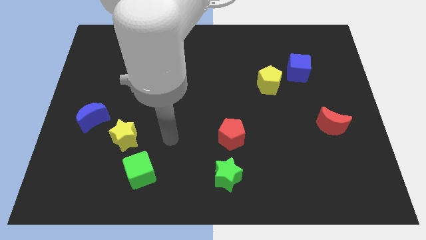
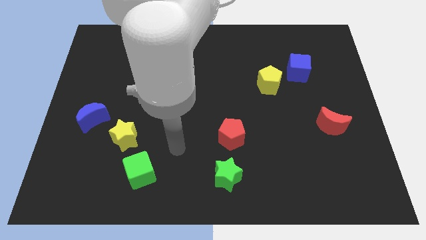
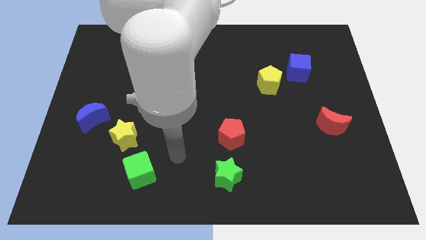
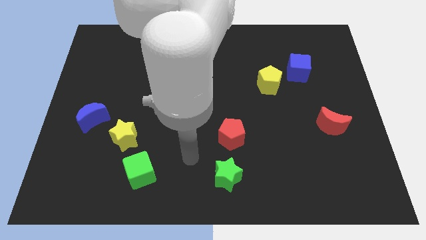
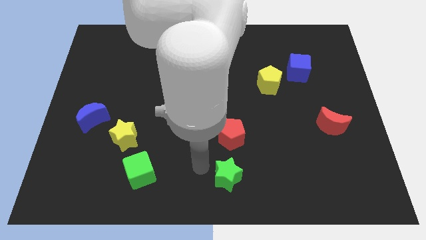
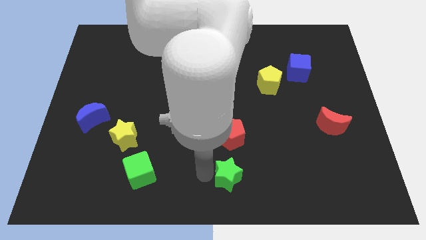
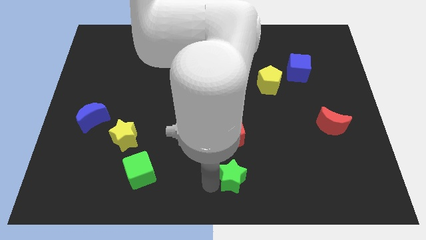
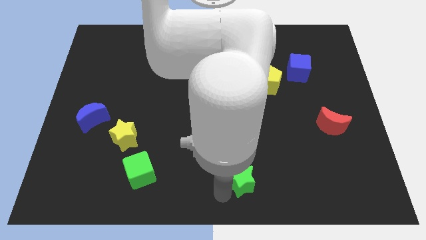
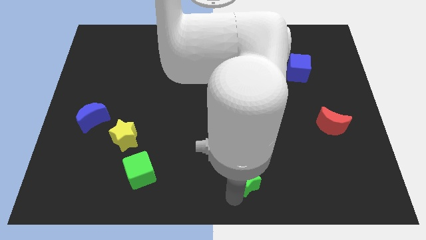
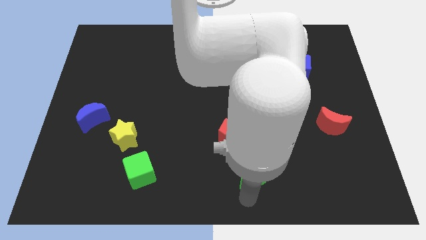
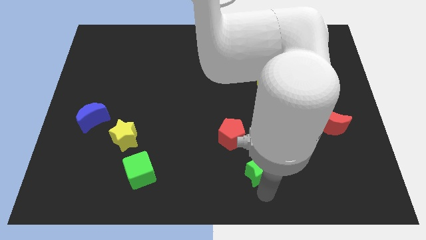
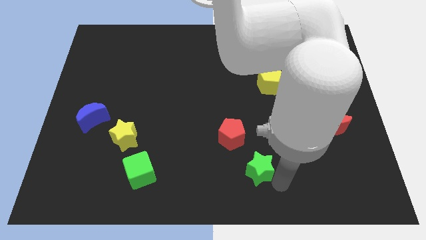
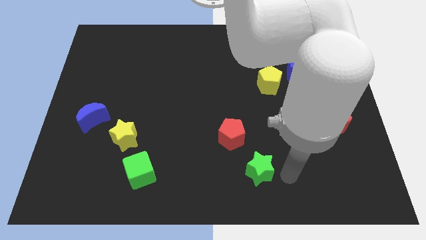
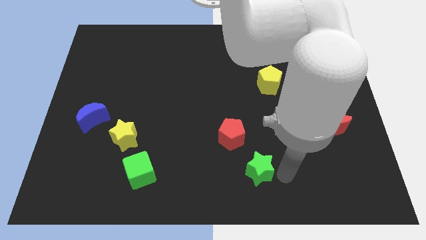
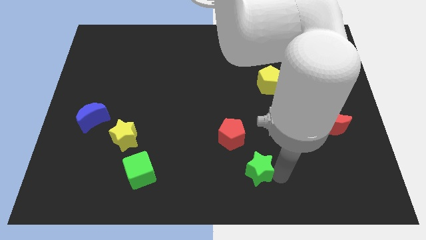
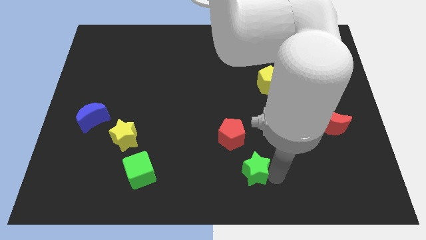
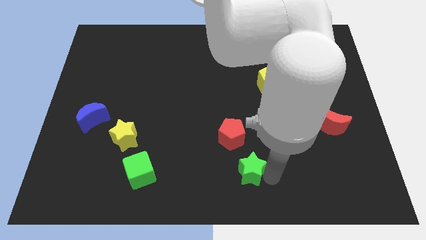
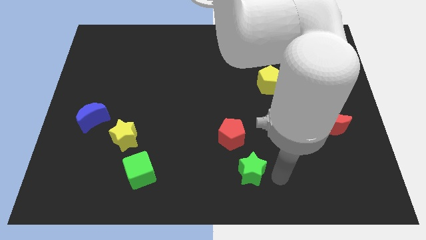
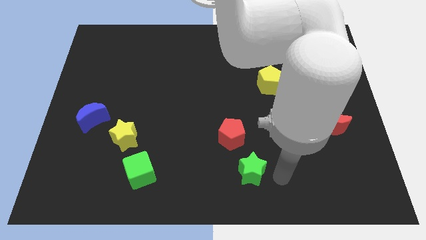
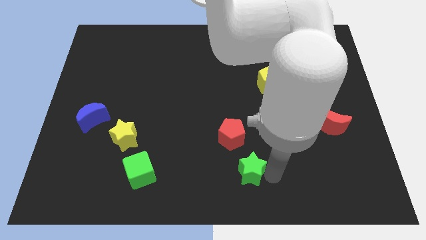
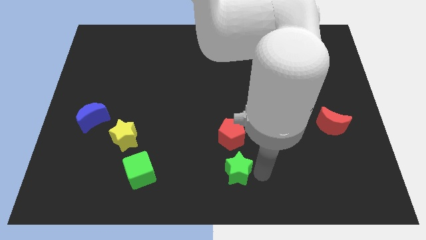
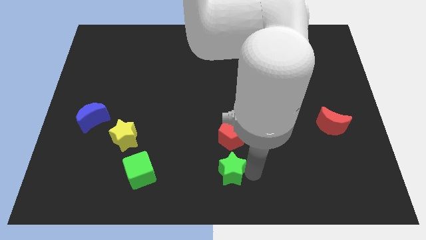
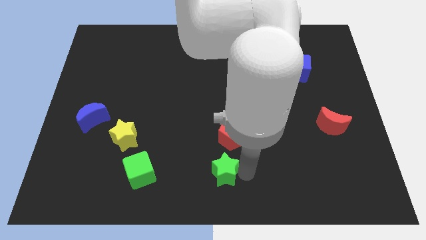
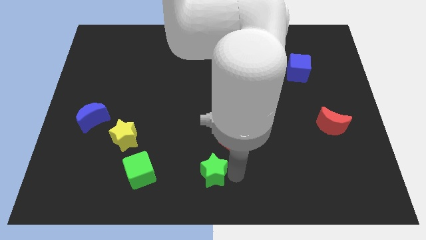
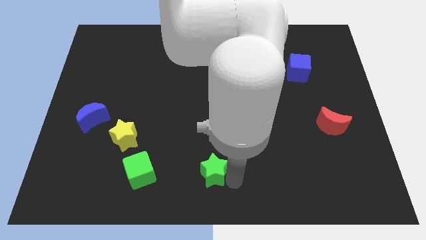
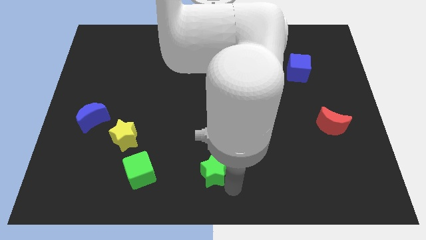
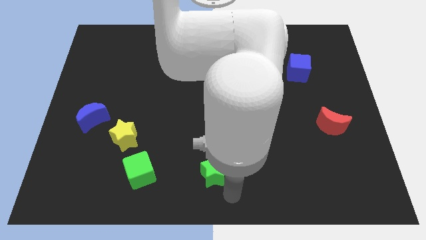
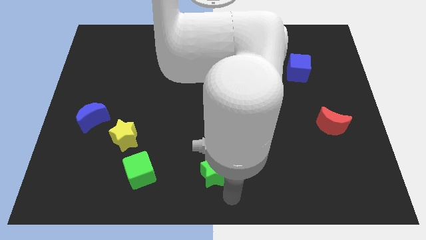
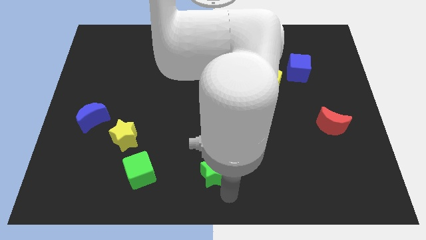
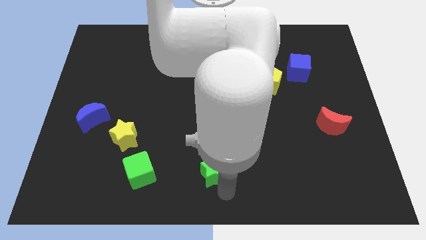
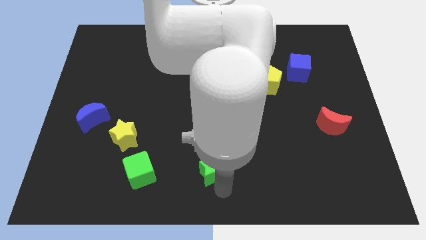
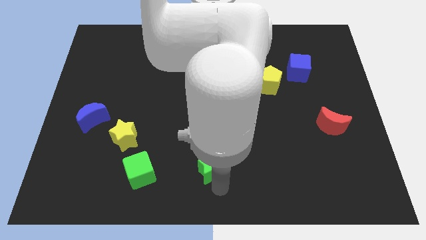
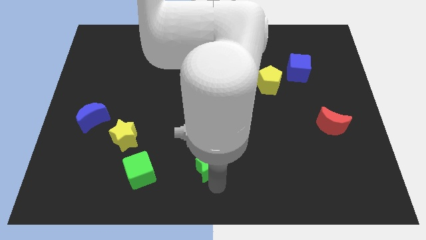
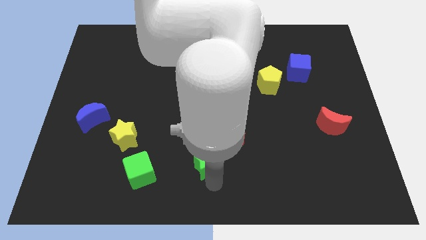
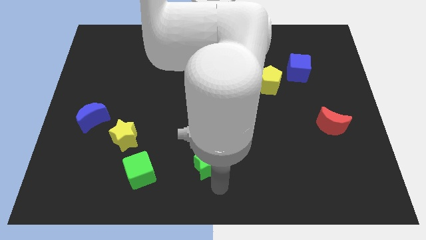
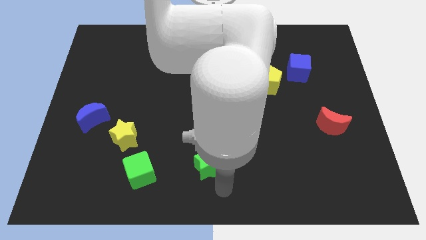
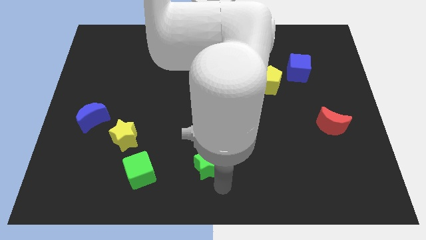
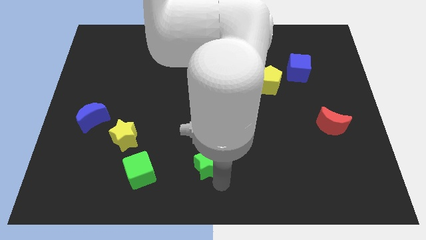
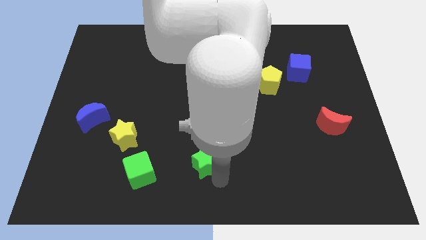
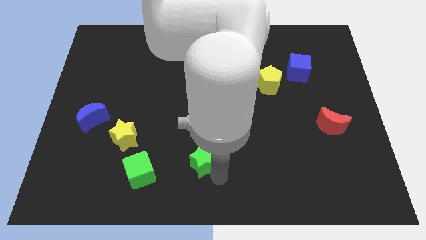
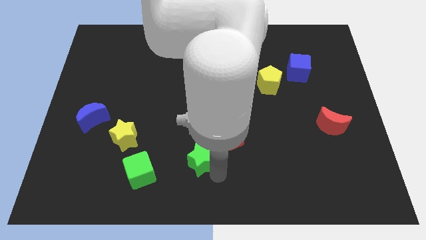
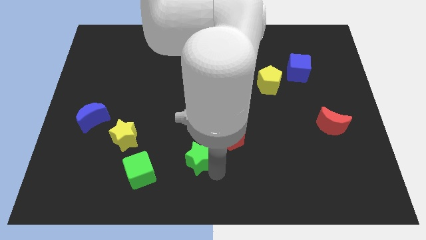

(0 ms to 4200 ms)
slightly push the green star diagonally upwards and left

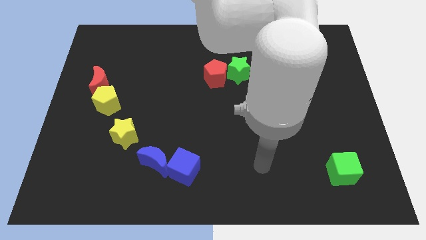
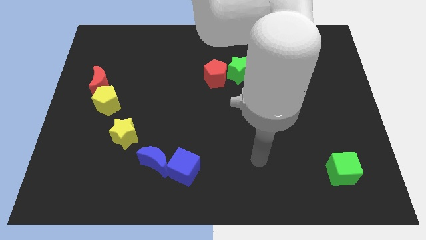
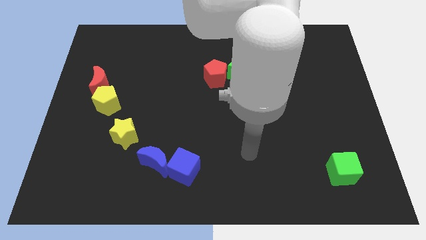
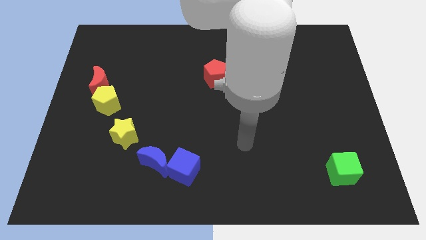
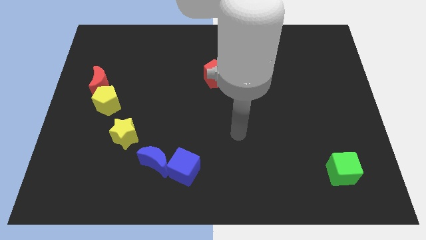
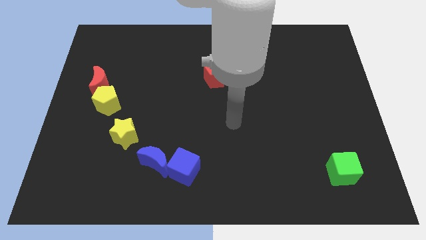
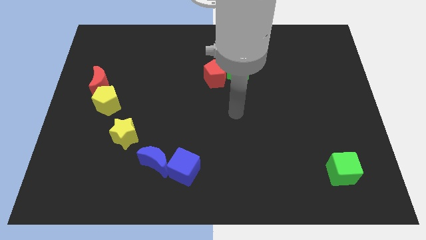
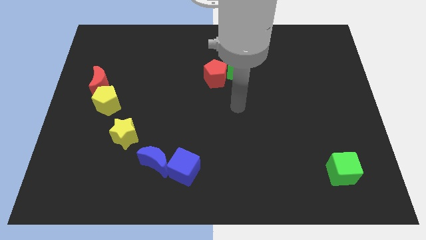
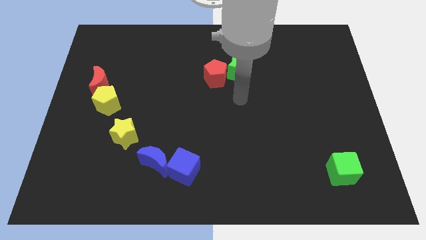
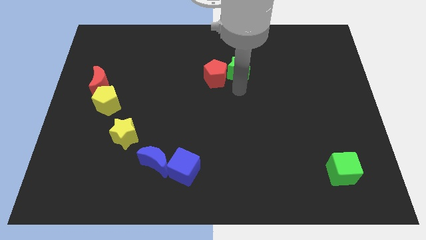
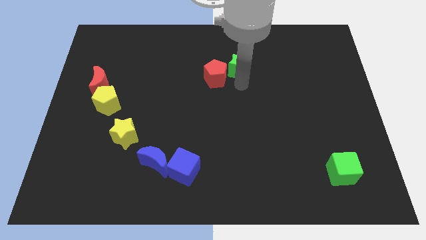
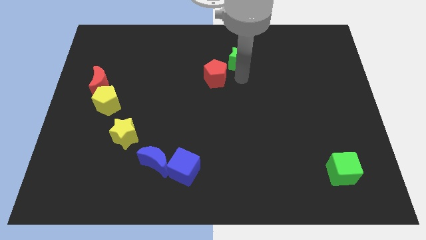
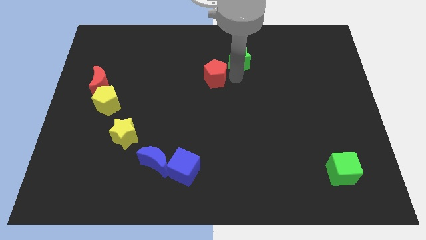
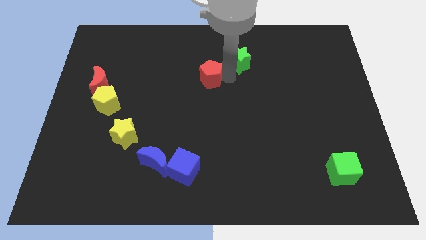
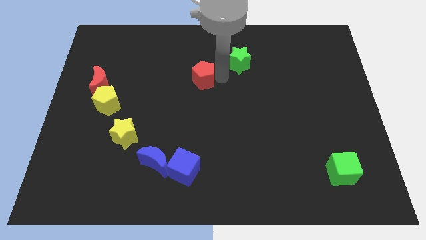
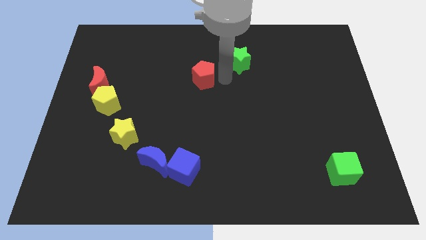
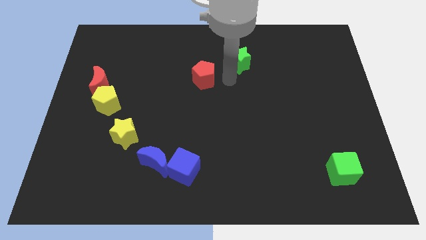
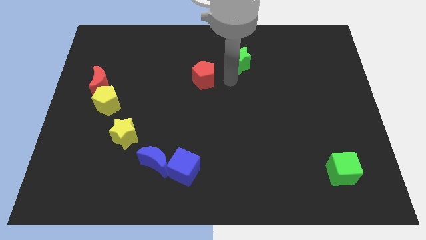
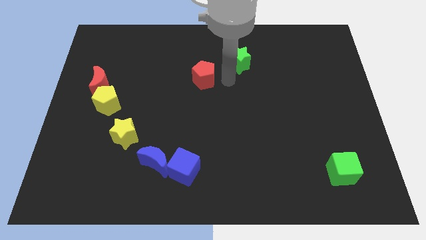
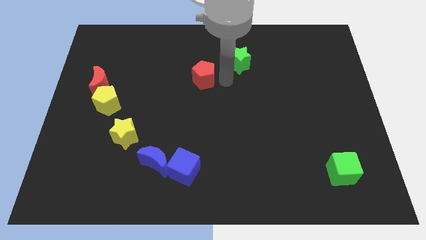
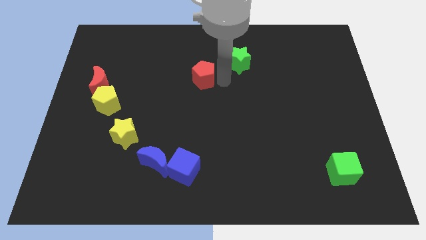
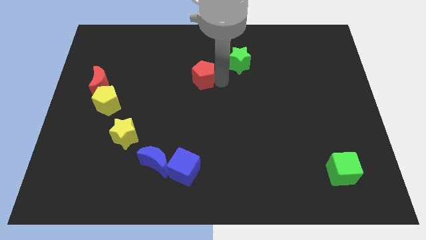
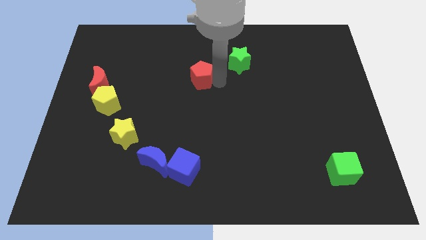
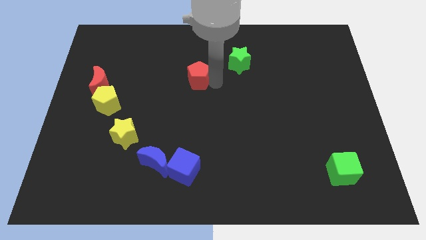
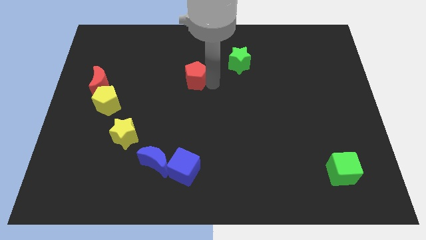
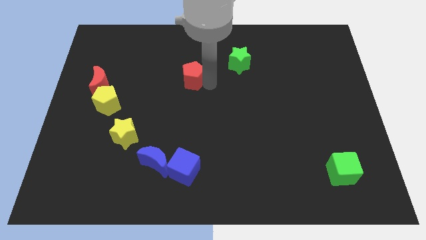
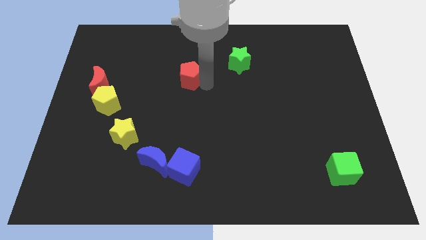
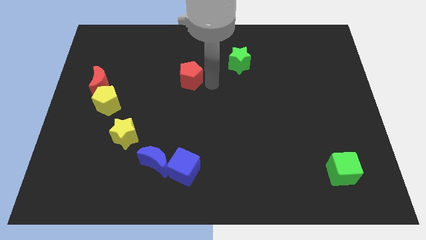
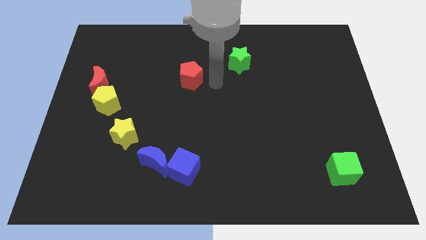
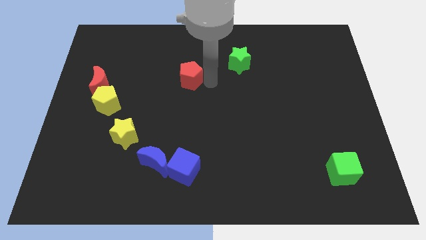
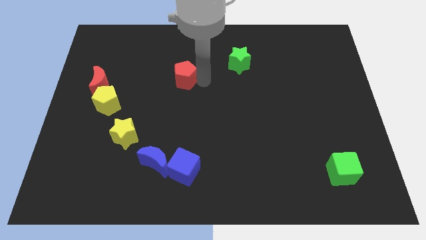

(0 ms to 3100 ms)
slide the red pentagon somewhat left

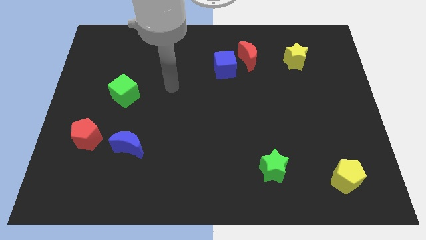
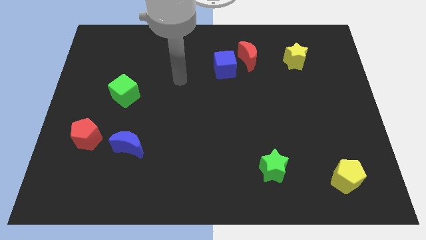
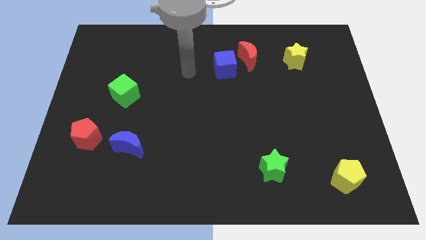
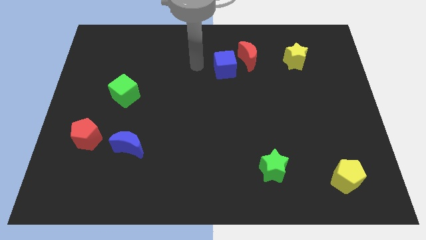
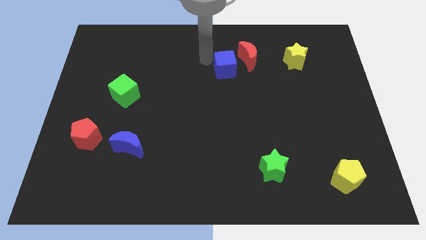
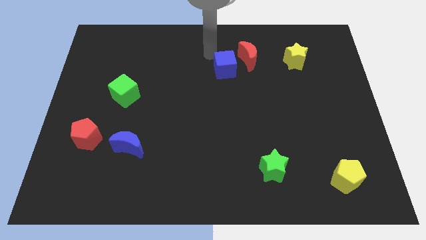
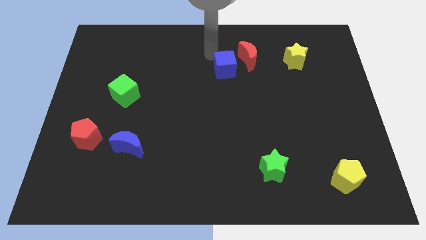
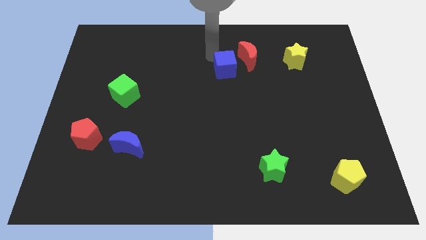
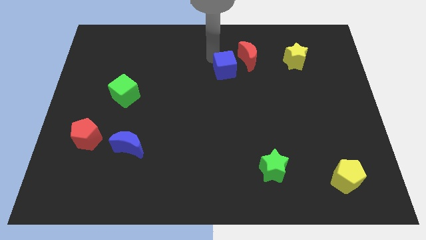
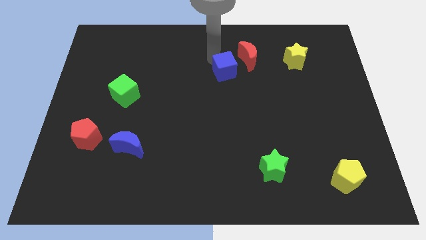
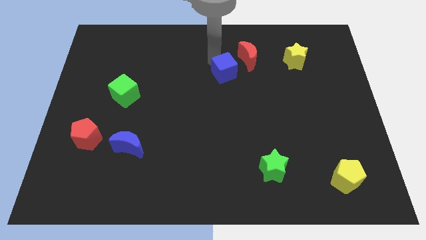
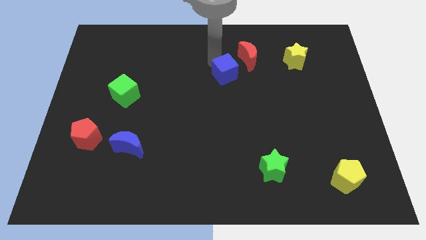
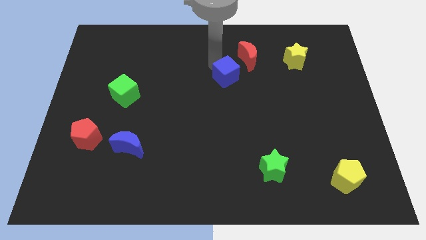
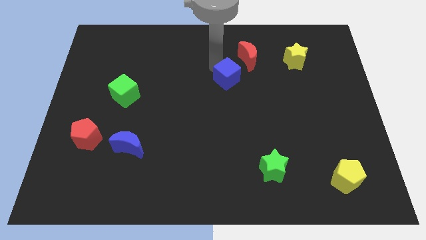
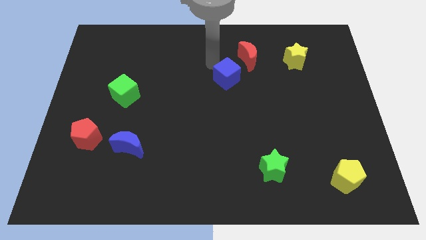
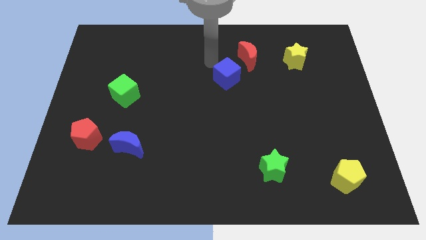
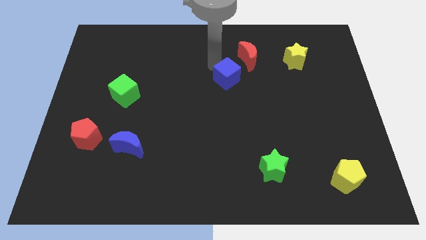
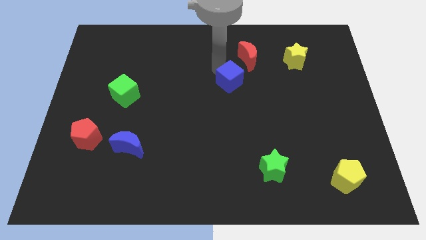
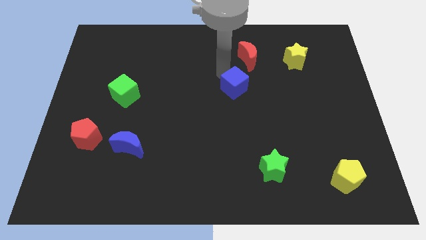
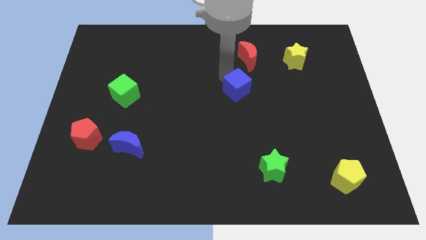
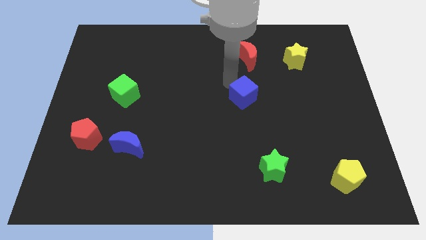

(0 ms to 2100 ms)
push the blue cube a little bit down and then right
